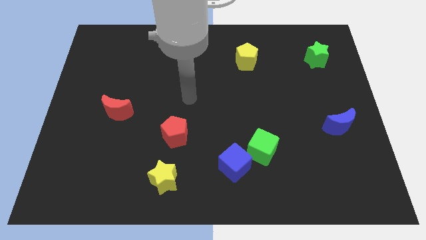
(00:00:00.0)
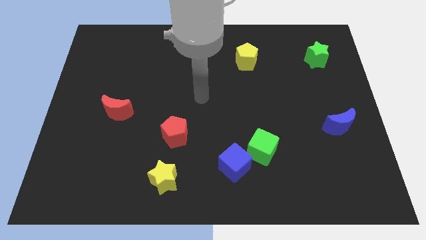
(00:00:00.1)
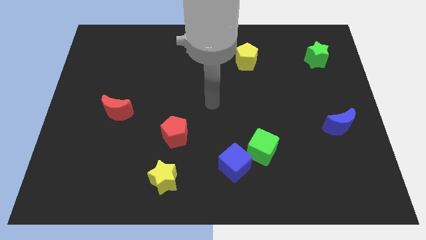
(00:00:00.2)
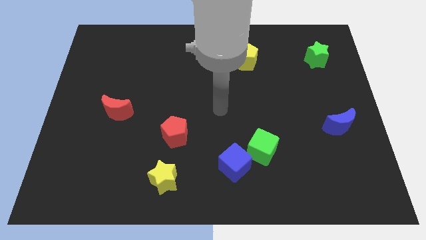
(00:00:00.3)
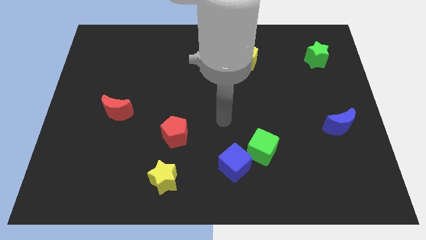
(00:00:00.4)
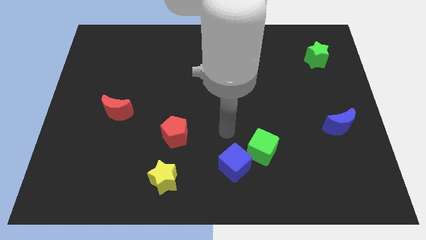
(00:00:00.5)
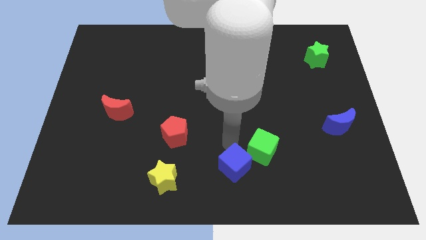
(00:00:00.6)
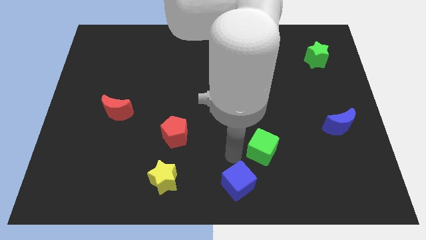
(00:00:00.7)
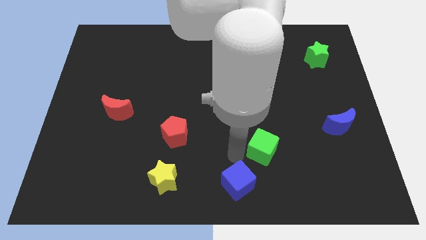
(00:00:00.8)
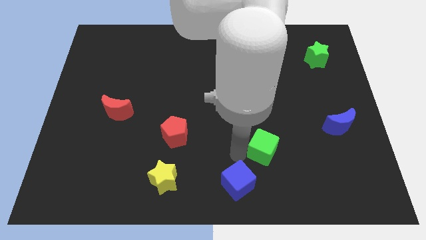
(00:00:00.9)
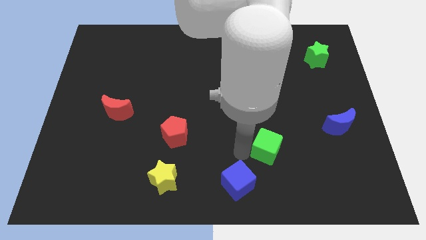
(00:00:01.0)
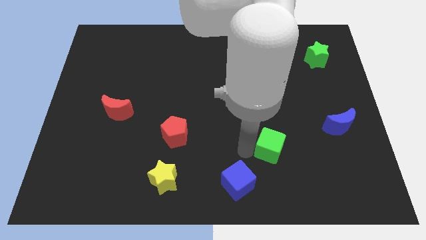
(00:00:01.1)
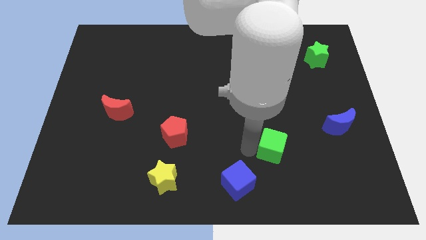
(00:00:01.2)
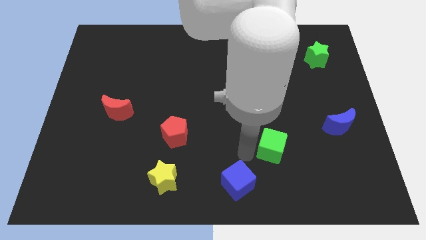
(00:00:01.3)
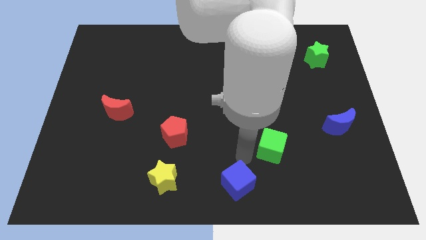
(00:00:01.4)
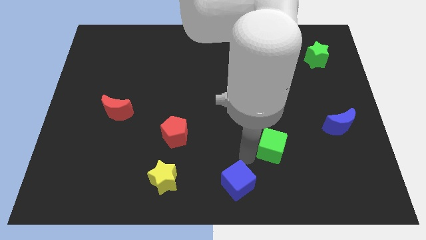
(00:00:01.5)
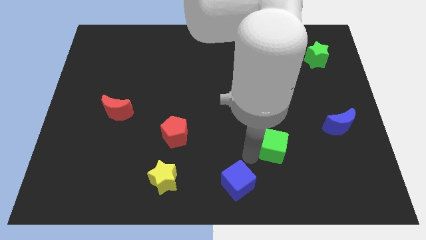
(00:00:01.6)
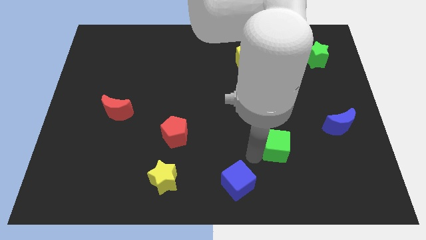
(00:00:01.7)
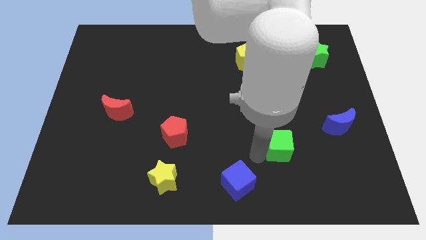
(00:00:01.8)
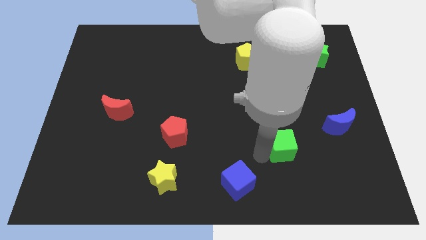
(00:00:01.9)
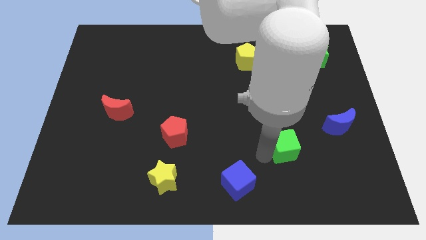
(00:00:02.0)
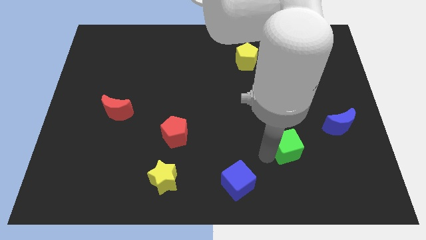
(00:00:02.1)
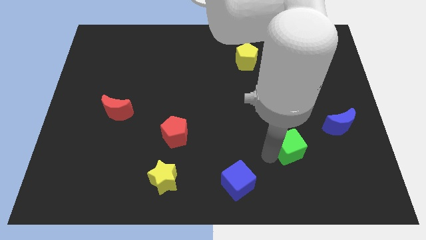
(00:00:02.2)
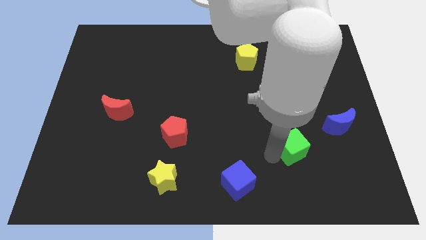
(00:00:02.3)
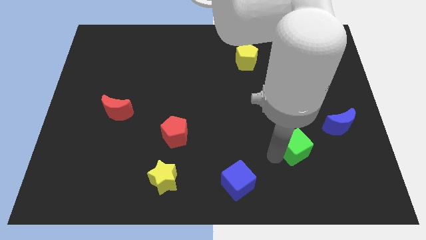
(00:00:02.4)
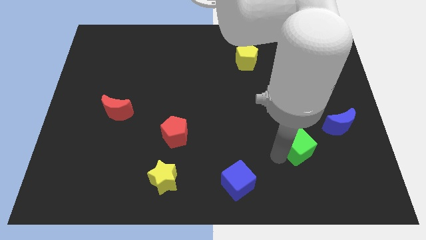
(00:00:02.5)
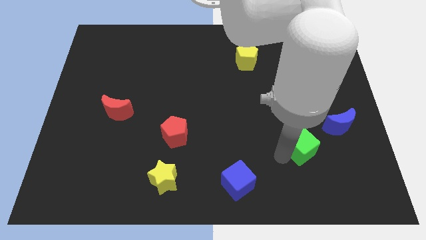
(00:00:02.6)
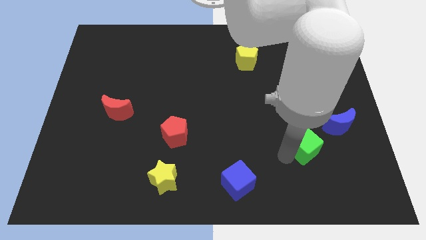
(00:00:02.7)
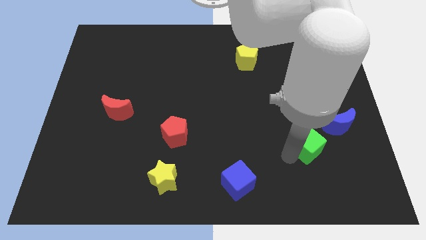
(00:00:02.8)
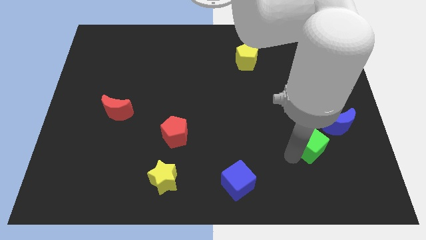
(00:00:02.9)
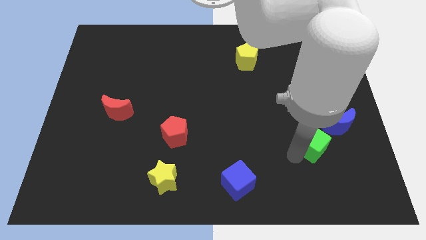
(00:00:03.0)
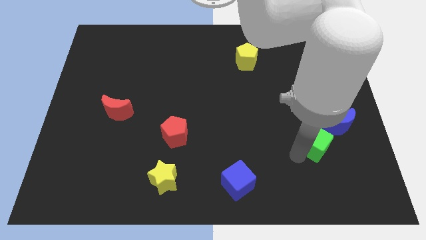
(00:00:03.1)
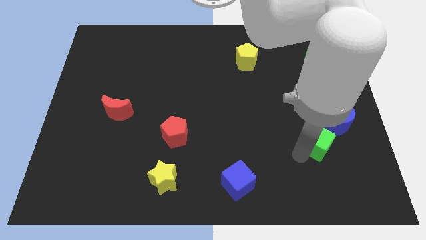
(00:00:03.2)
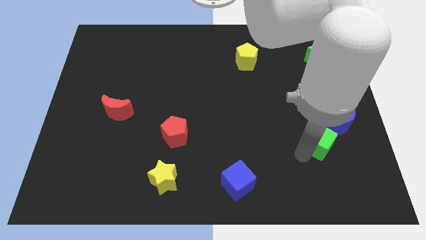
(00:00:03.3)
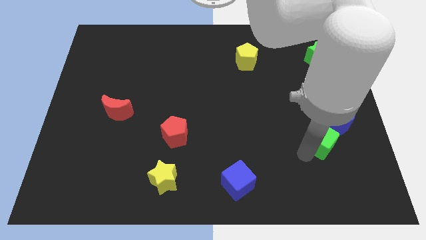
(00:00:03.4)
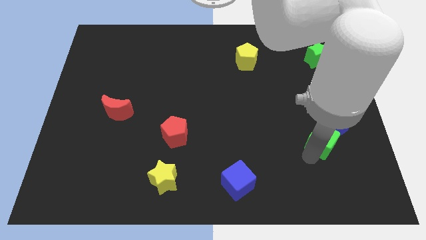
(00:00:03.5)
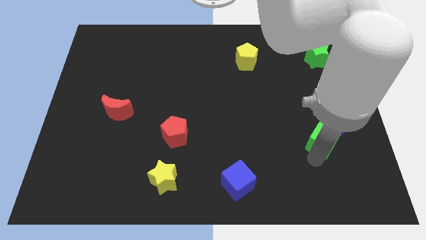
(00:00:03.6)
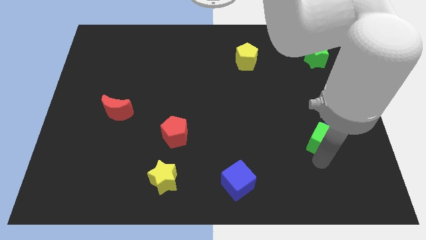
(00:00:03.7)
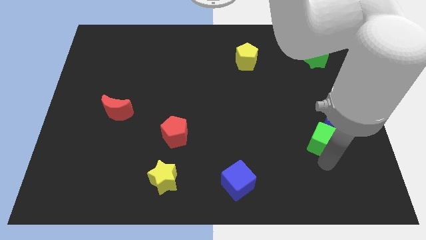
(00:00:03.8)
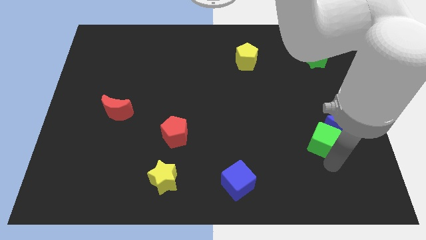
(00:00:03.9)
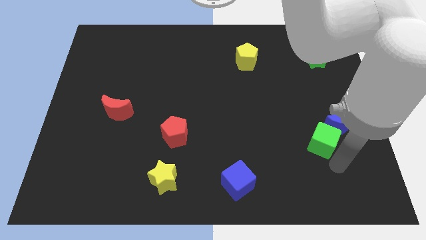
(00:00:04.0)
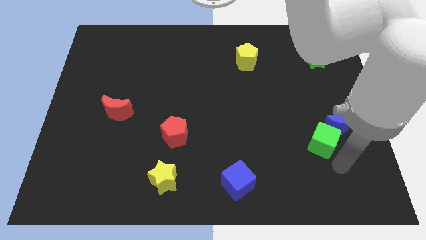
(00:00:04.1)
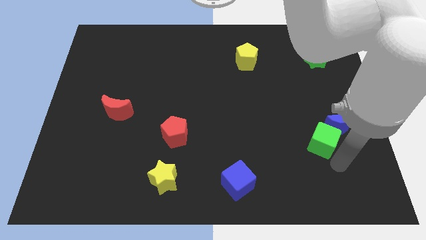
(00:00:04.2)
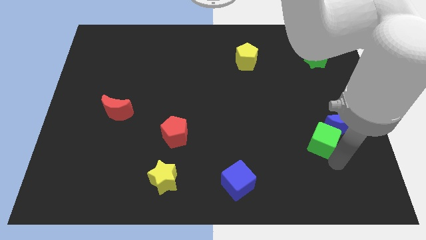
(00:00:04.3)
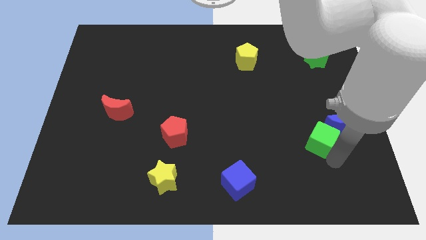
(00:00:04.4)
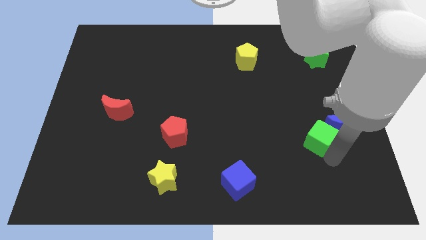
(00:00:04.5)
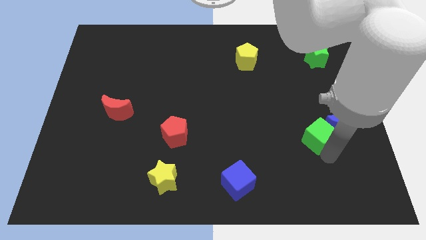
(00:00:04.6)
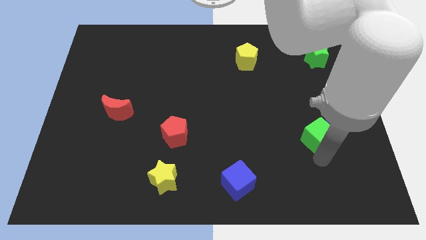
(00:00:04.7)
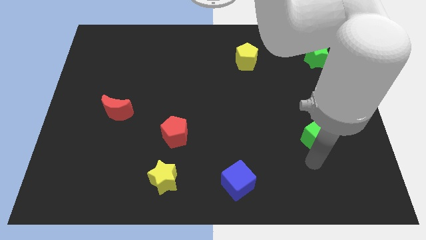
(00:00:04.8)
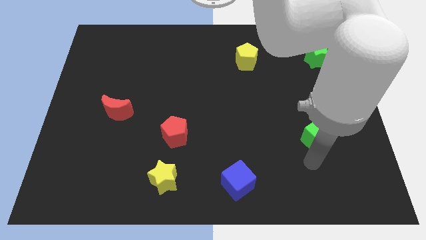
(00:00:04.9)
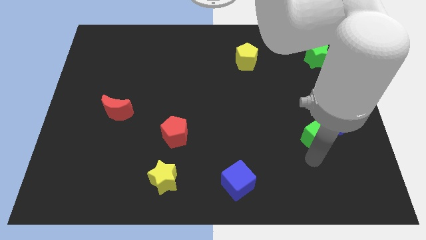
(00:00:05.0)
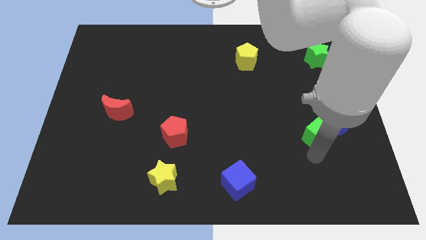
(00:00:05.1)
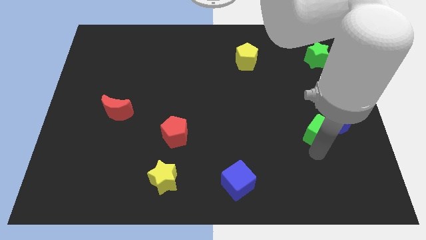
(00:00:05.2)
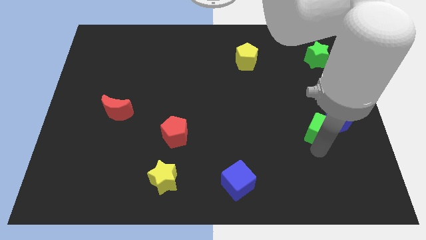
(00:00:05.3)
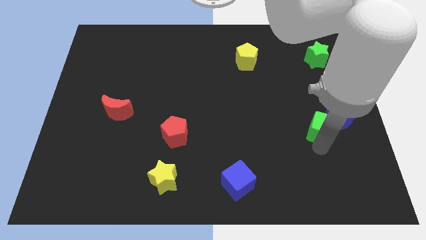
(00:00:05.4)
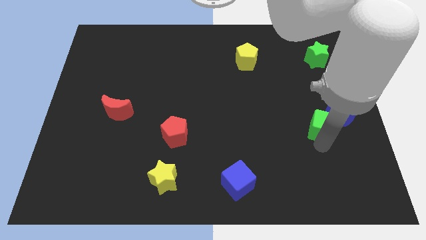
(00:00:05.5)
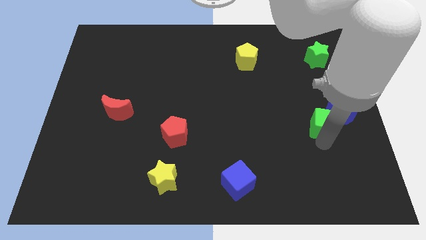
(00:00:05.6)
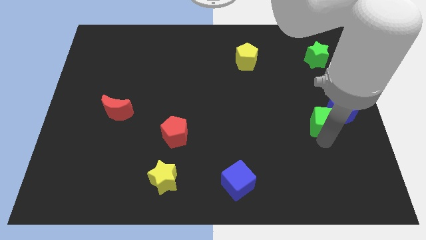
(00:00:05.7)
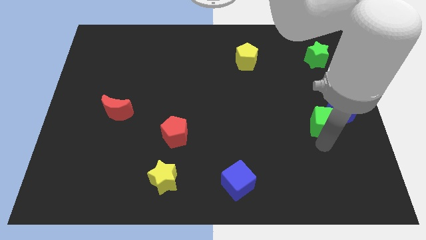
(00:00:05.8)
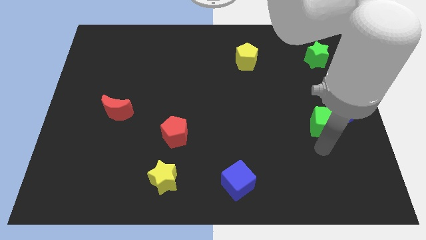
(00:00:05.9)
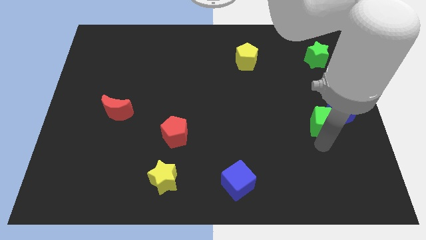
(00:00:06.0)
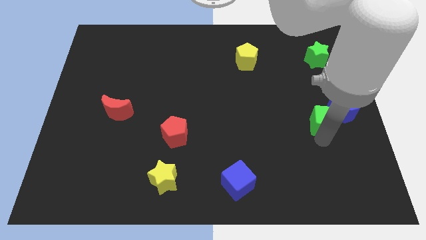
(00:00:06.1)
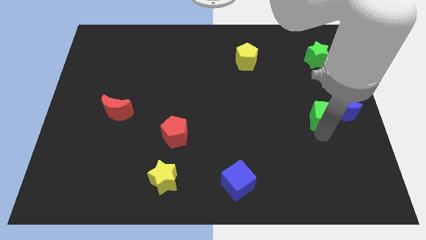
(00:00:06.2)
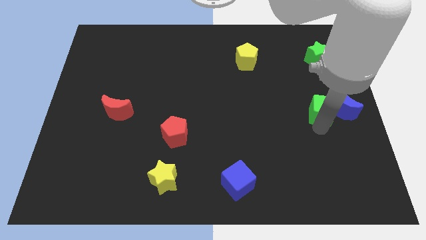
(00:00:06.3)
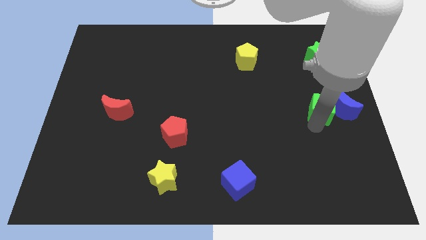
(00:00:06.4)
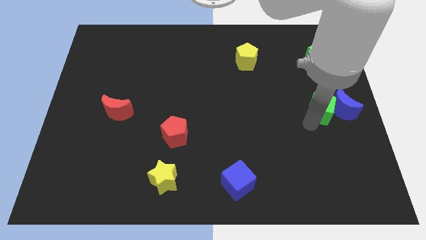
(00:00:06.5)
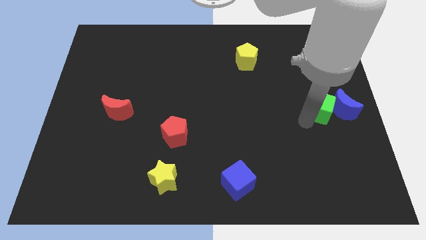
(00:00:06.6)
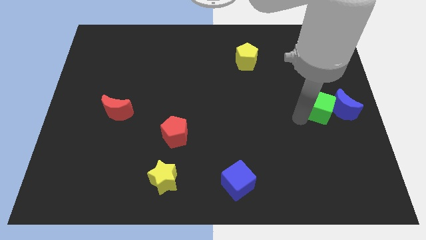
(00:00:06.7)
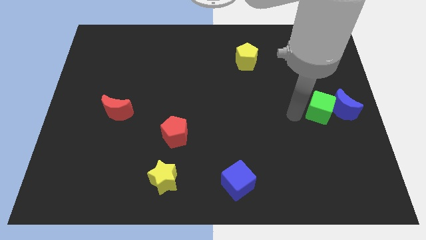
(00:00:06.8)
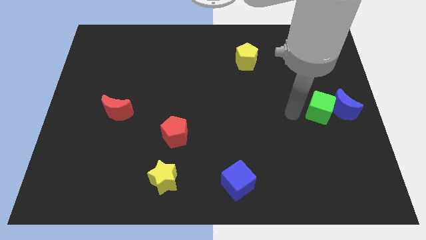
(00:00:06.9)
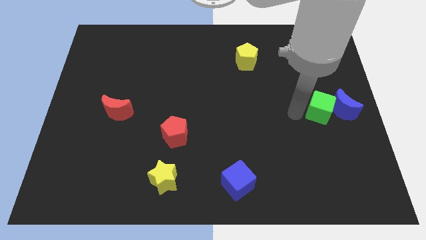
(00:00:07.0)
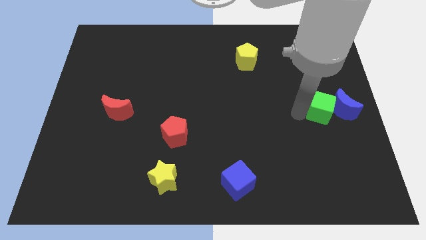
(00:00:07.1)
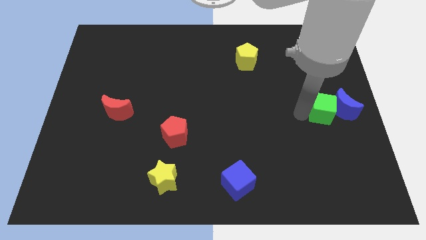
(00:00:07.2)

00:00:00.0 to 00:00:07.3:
move the green cube to the center right
